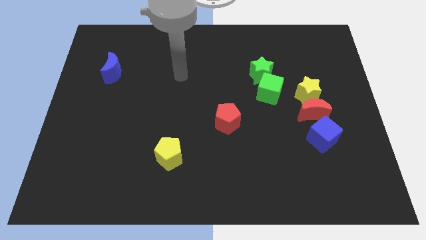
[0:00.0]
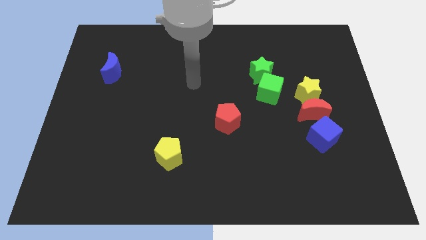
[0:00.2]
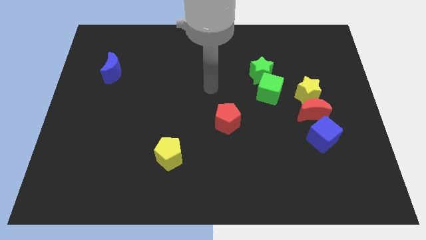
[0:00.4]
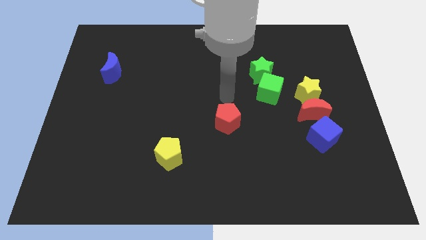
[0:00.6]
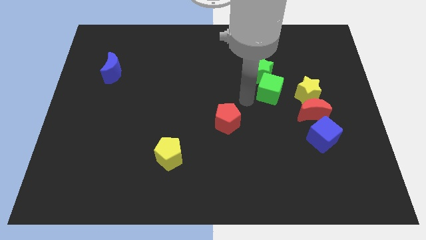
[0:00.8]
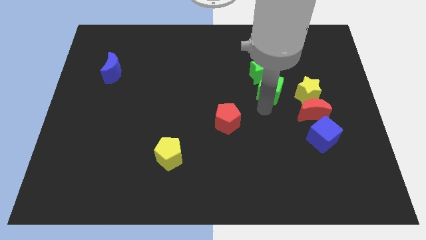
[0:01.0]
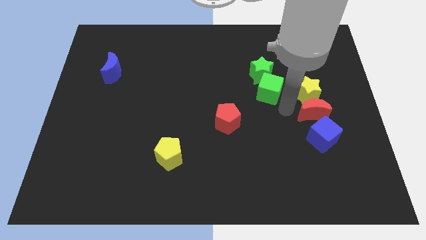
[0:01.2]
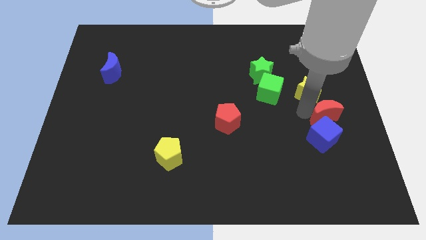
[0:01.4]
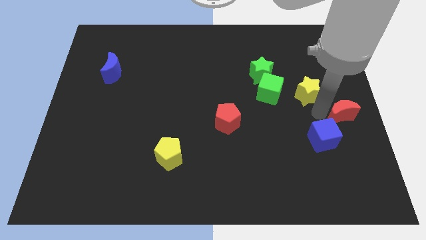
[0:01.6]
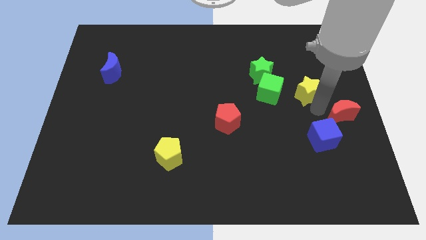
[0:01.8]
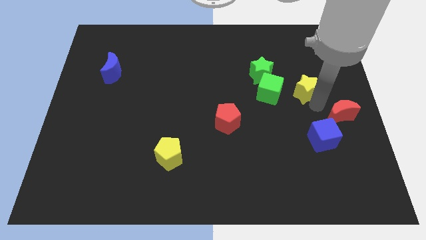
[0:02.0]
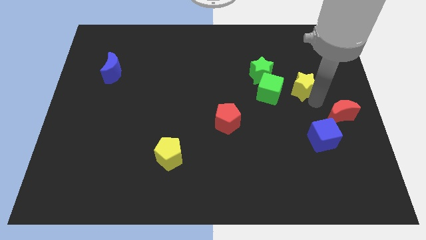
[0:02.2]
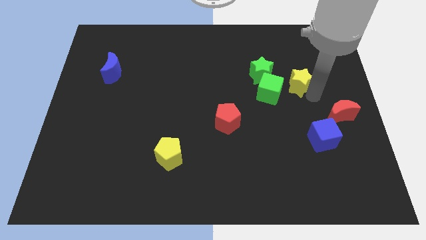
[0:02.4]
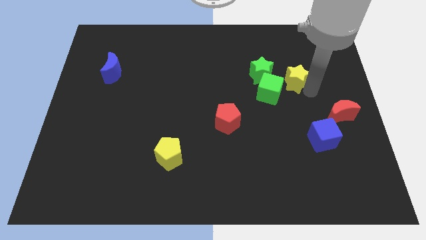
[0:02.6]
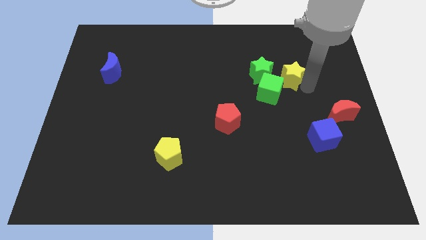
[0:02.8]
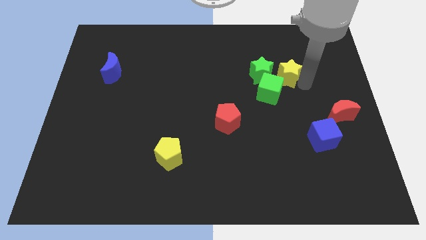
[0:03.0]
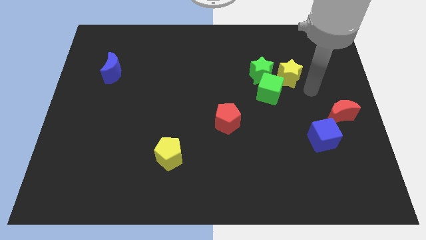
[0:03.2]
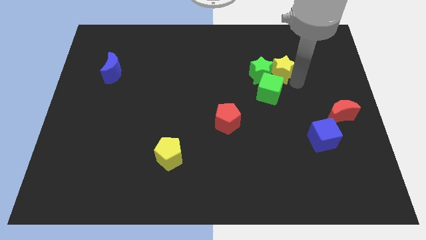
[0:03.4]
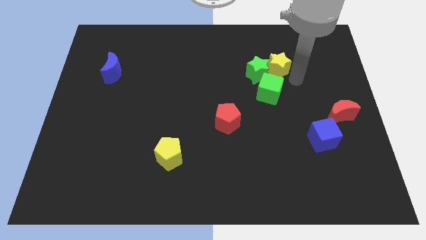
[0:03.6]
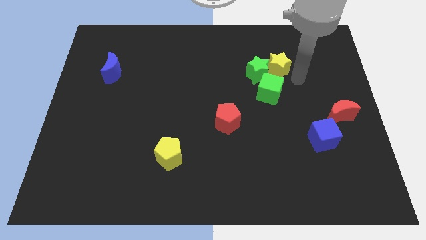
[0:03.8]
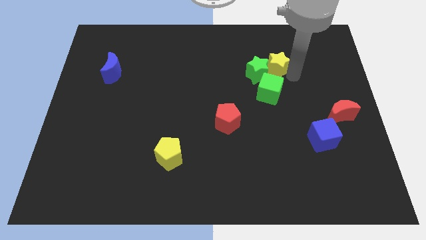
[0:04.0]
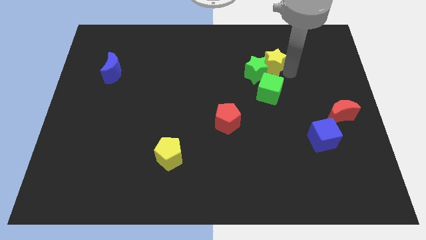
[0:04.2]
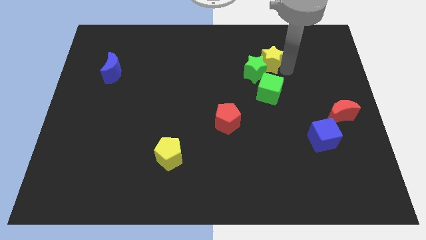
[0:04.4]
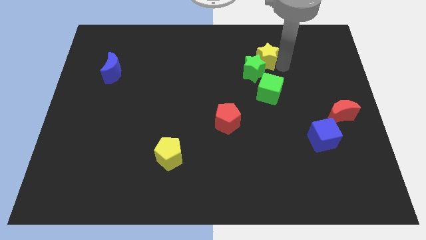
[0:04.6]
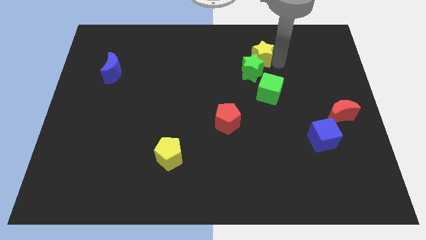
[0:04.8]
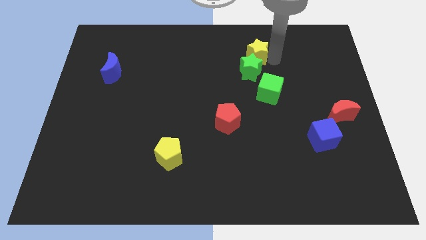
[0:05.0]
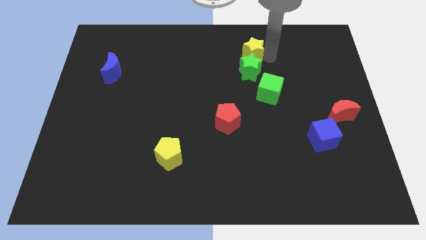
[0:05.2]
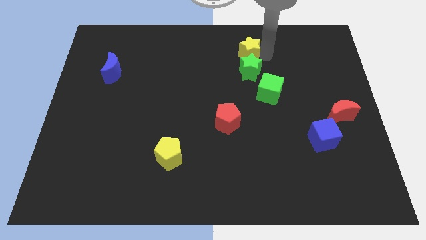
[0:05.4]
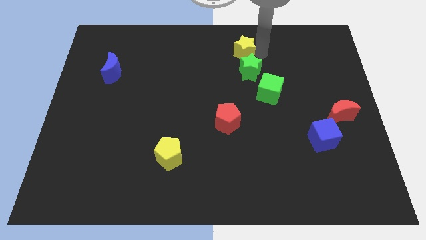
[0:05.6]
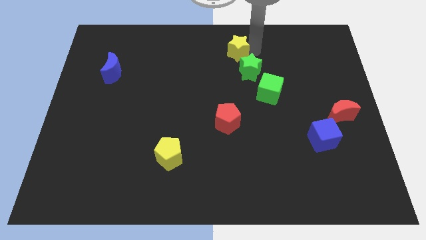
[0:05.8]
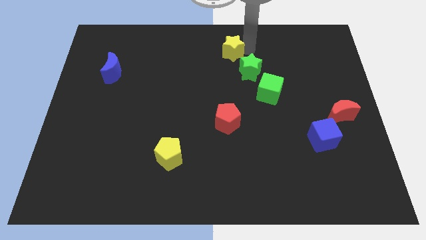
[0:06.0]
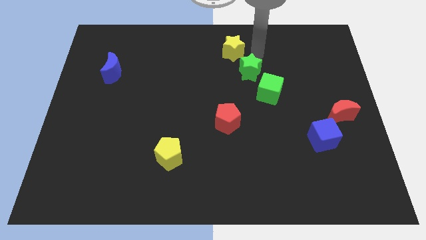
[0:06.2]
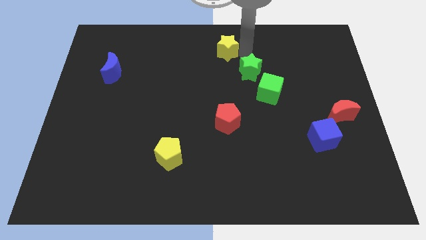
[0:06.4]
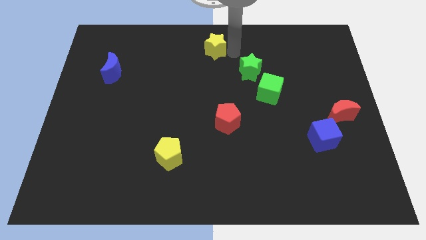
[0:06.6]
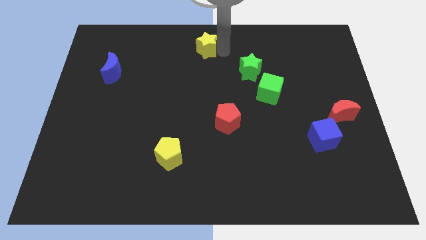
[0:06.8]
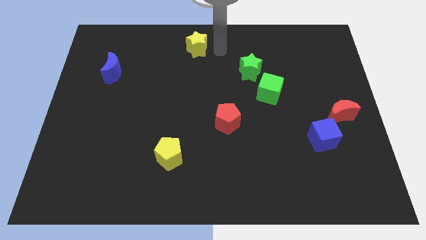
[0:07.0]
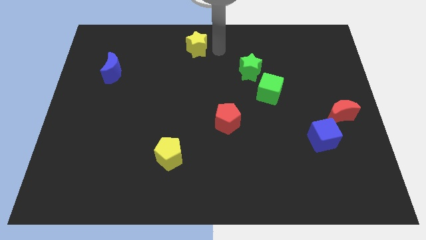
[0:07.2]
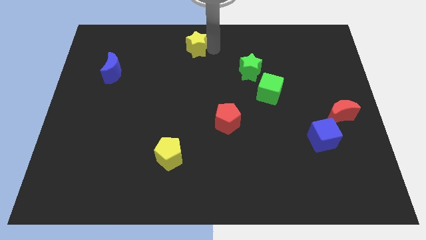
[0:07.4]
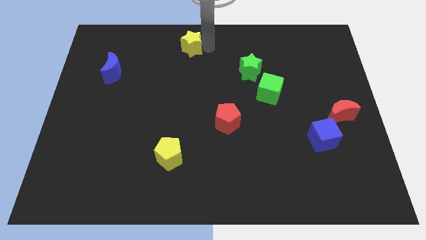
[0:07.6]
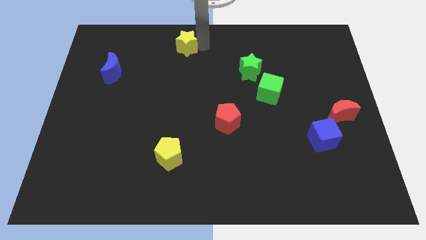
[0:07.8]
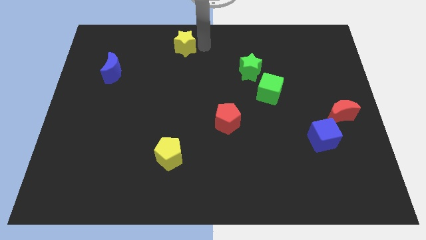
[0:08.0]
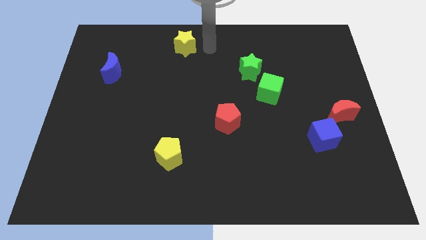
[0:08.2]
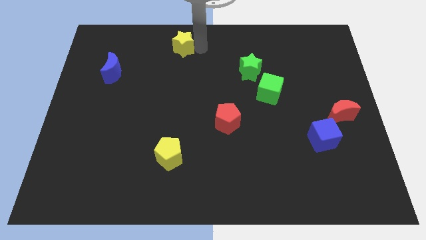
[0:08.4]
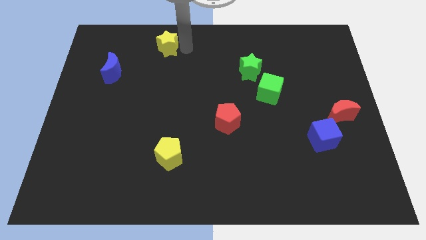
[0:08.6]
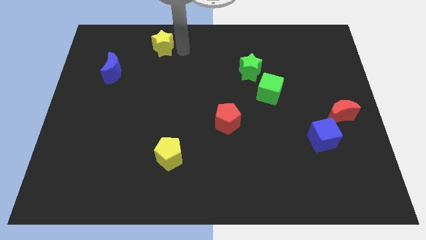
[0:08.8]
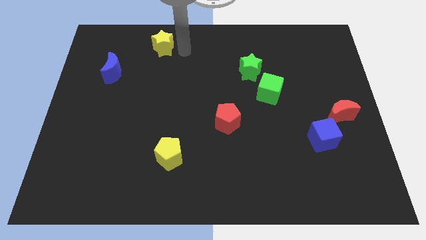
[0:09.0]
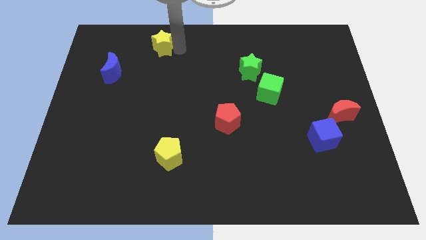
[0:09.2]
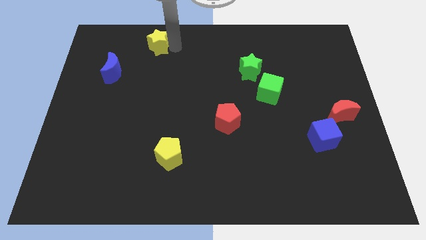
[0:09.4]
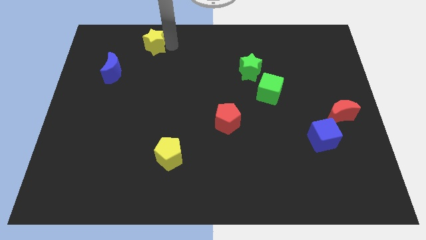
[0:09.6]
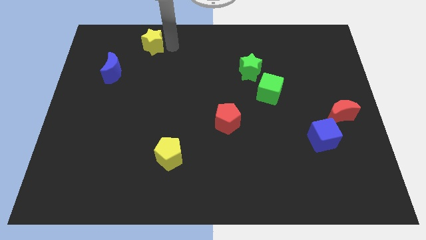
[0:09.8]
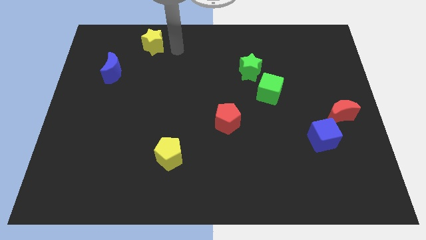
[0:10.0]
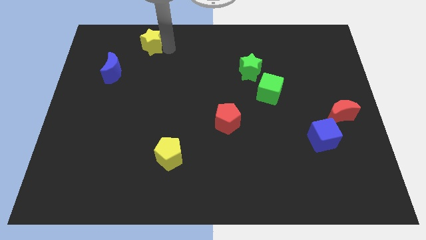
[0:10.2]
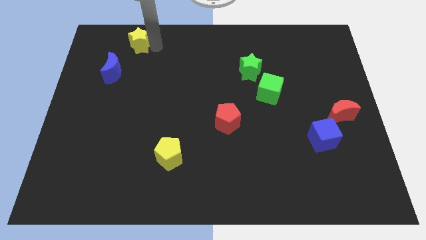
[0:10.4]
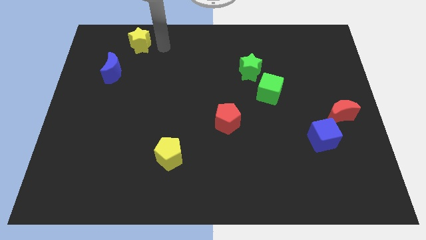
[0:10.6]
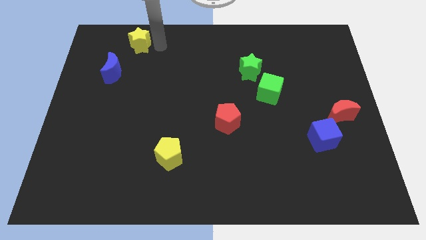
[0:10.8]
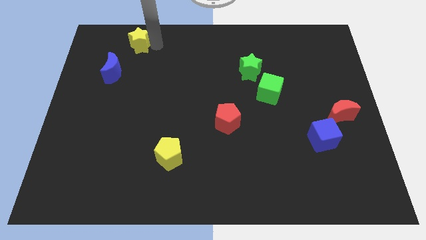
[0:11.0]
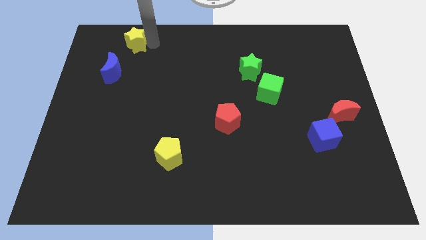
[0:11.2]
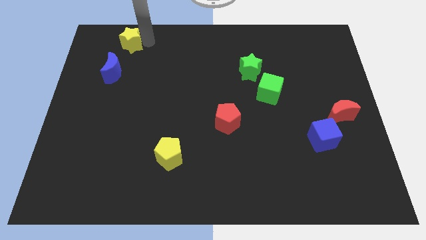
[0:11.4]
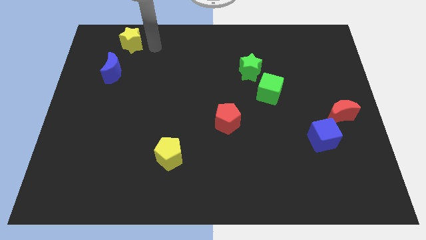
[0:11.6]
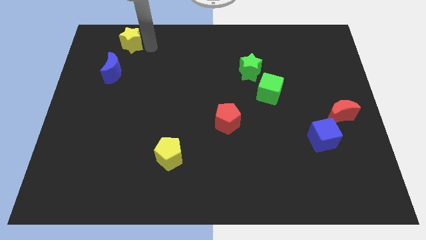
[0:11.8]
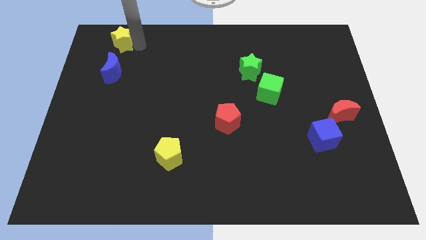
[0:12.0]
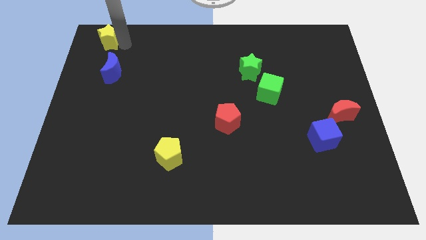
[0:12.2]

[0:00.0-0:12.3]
slide the yellow star to the top left corner

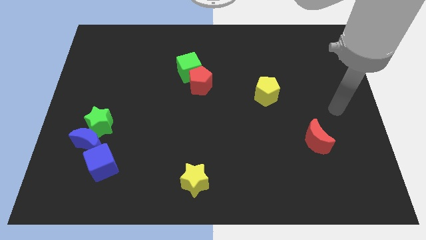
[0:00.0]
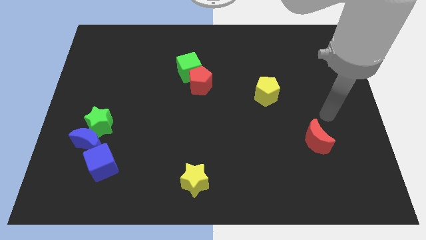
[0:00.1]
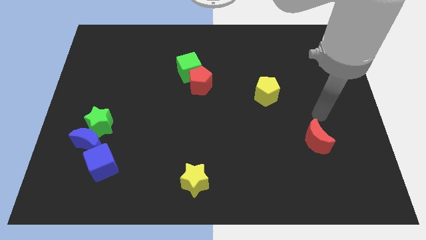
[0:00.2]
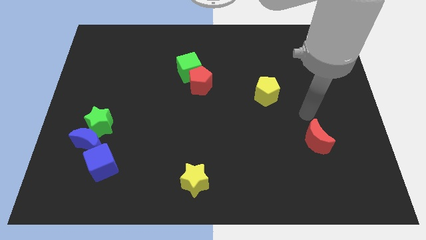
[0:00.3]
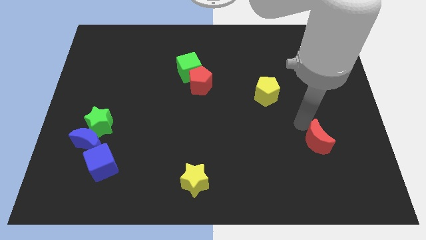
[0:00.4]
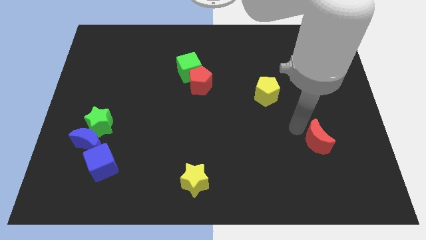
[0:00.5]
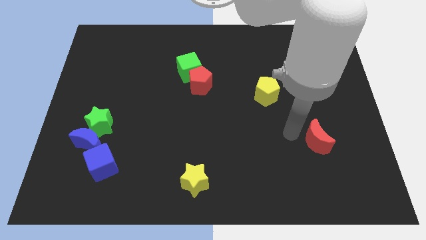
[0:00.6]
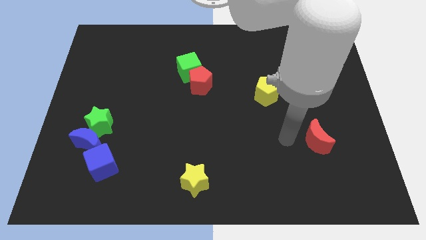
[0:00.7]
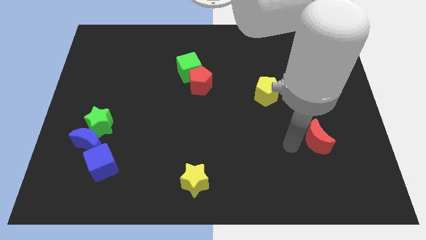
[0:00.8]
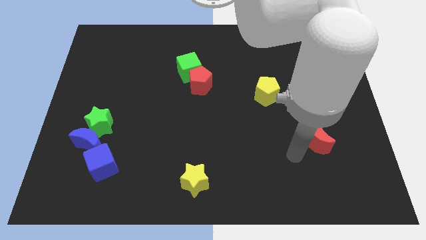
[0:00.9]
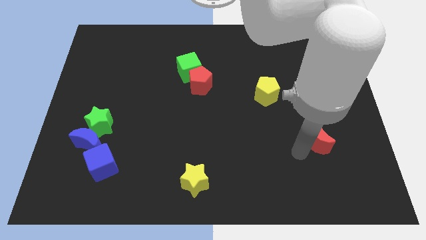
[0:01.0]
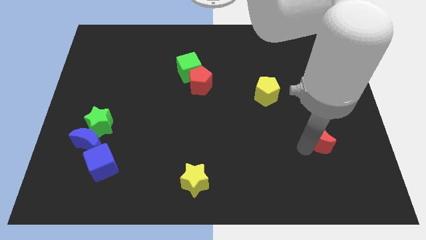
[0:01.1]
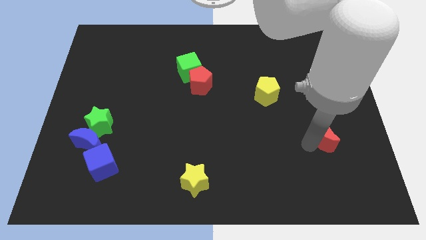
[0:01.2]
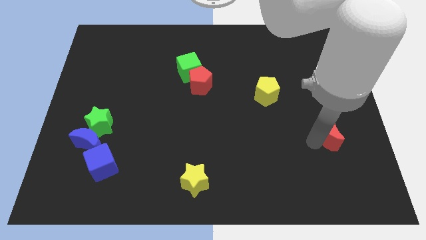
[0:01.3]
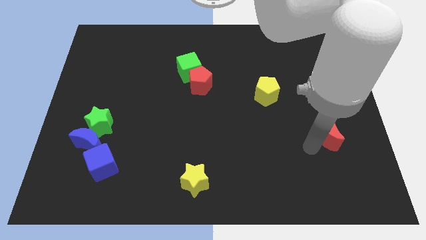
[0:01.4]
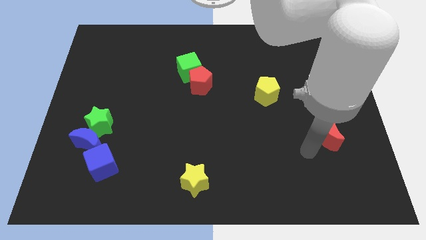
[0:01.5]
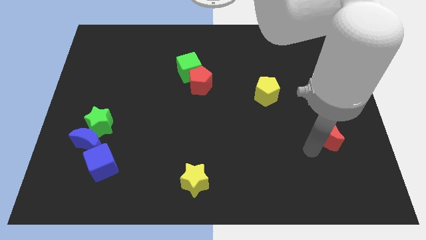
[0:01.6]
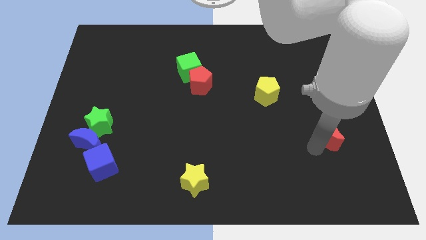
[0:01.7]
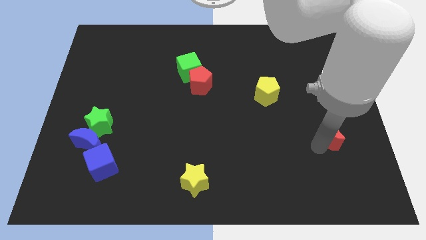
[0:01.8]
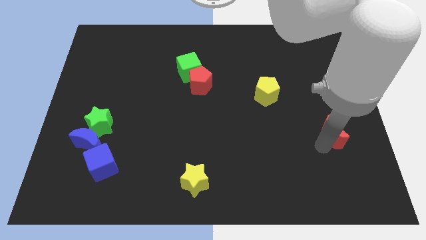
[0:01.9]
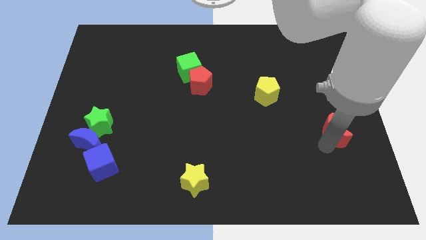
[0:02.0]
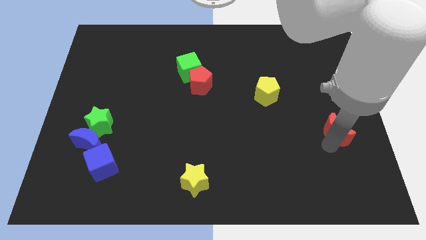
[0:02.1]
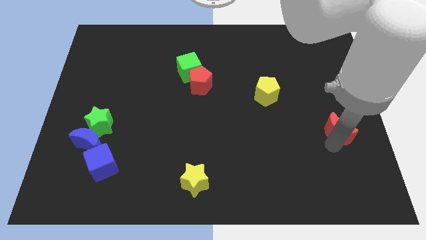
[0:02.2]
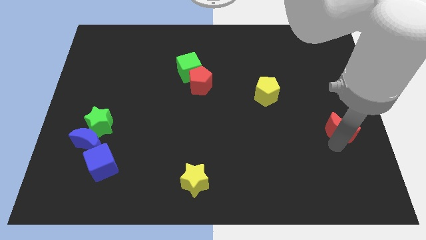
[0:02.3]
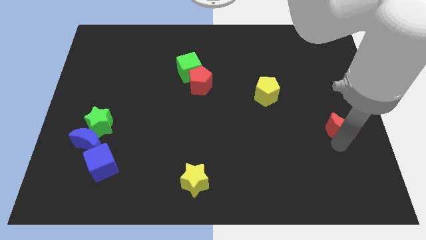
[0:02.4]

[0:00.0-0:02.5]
slide the red moon to the right side
